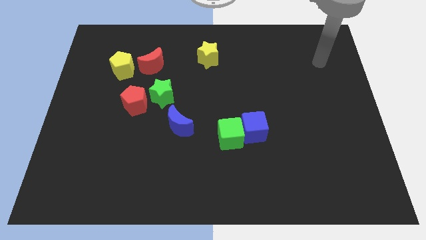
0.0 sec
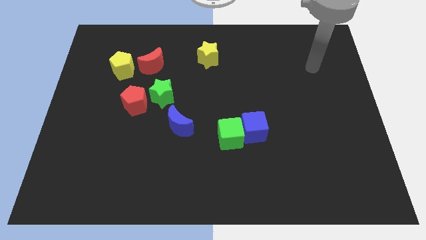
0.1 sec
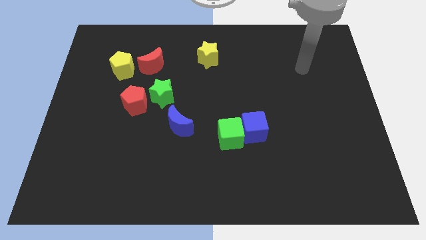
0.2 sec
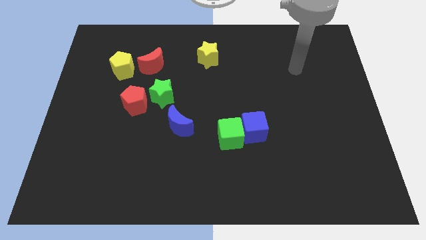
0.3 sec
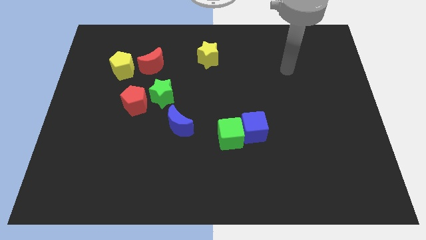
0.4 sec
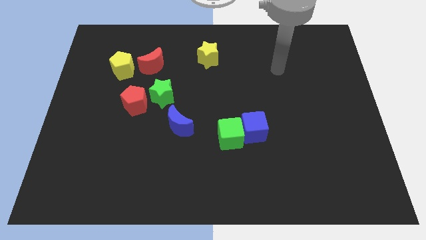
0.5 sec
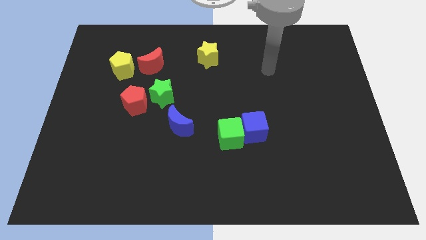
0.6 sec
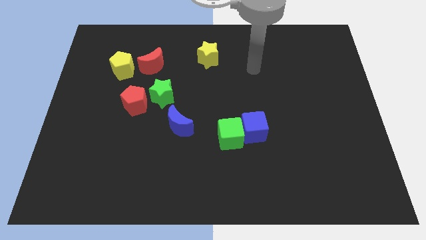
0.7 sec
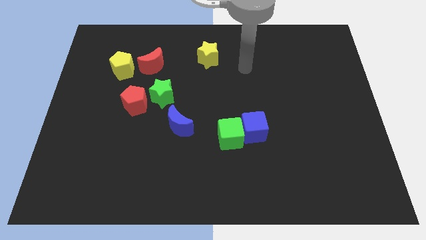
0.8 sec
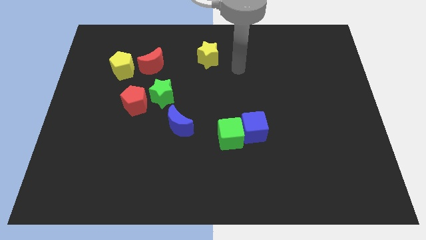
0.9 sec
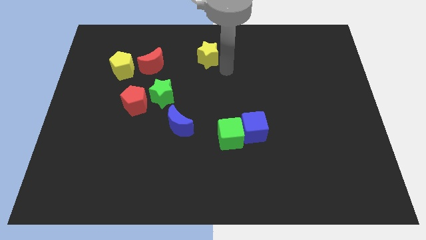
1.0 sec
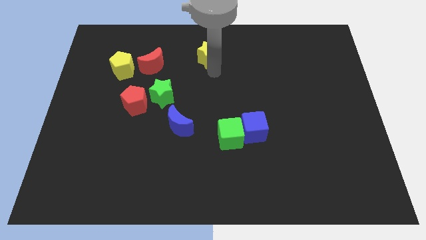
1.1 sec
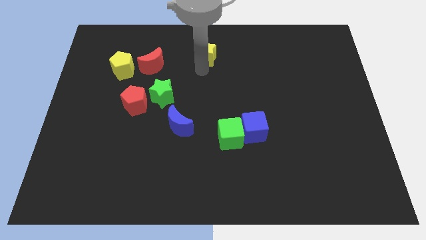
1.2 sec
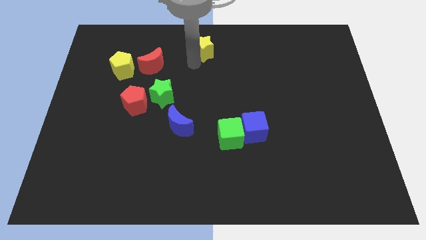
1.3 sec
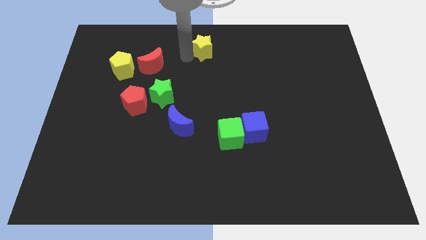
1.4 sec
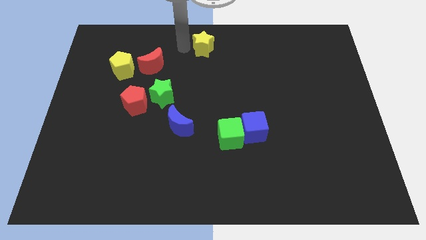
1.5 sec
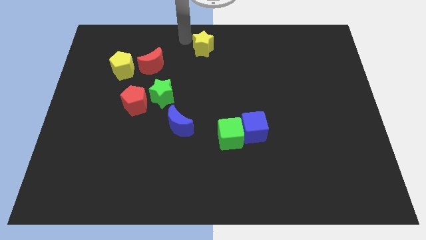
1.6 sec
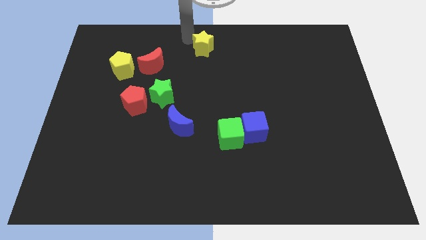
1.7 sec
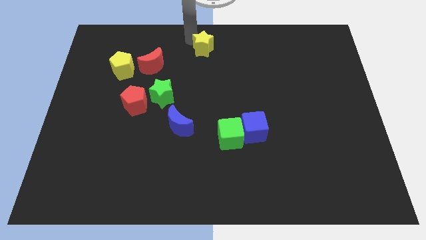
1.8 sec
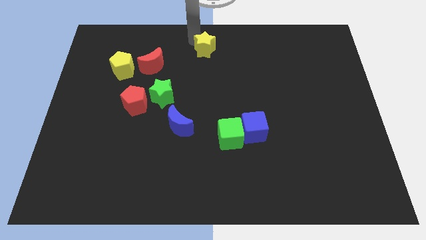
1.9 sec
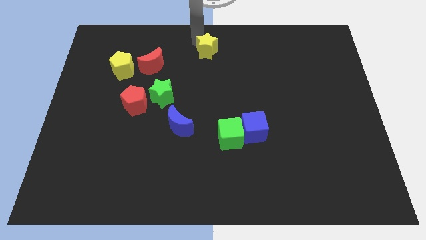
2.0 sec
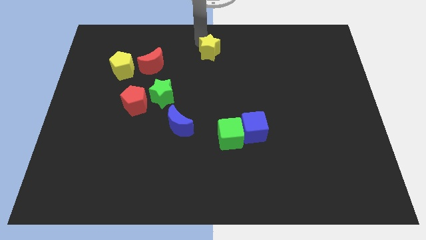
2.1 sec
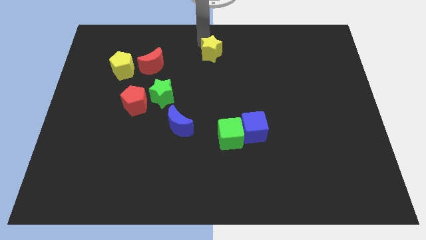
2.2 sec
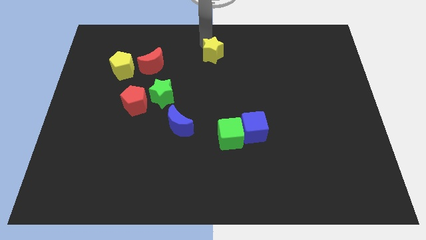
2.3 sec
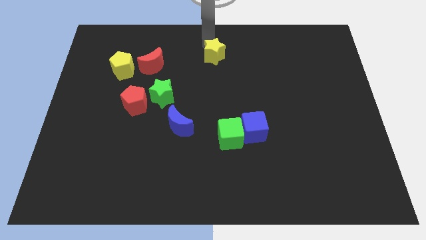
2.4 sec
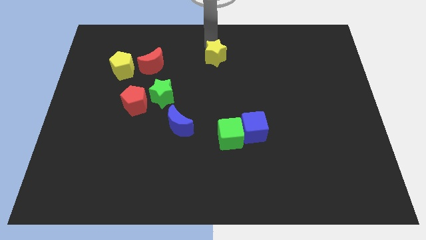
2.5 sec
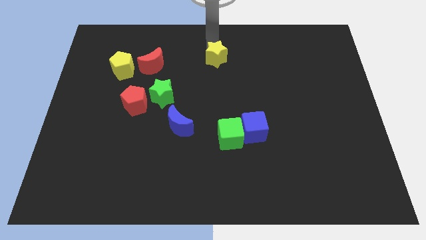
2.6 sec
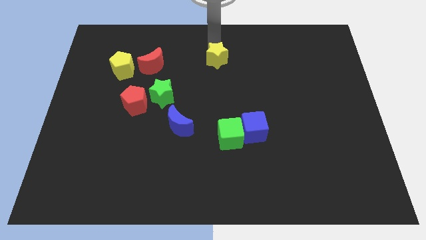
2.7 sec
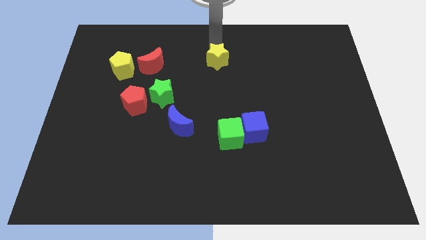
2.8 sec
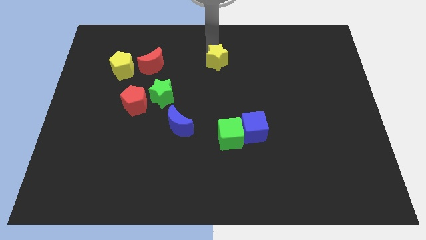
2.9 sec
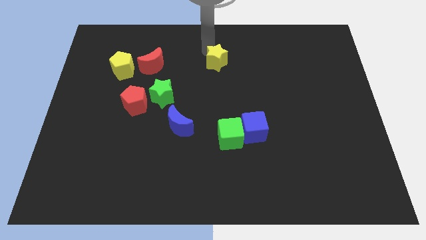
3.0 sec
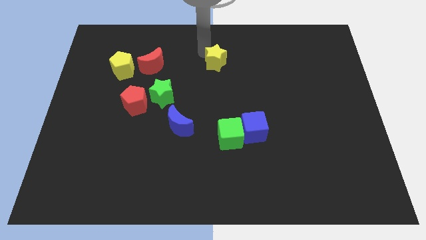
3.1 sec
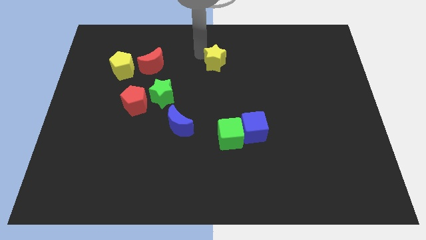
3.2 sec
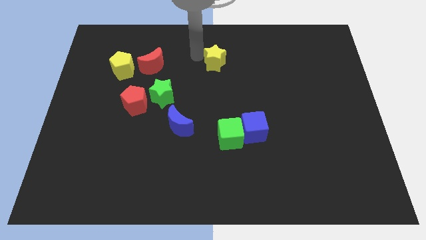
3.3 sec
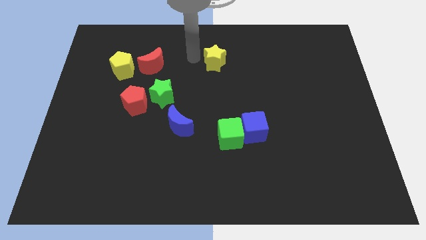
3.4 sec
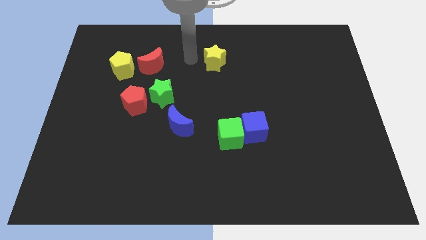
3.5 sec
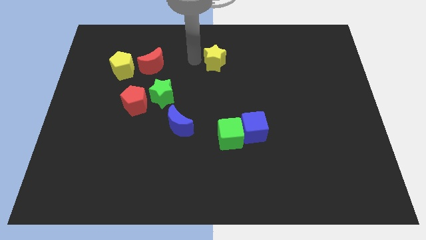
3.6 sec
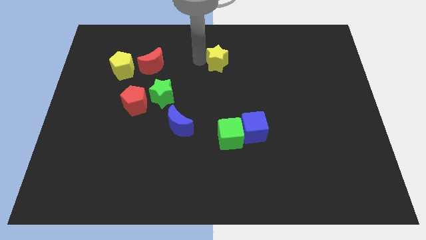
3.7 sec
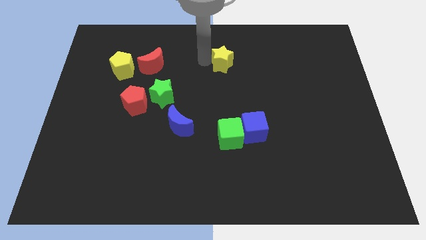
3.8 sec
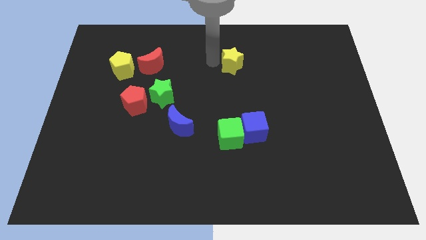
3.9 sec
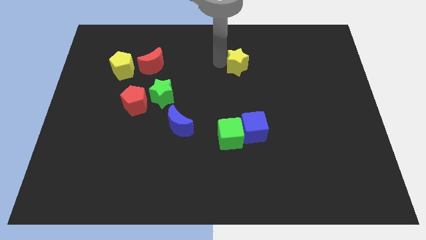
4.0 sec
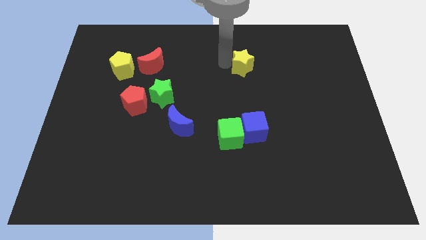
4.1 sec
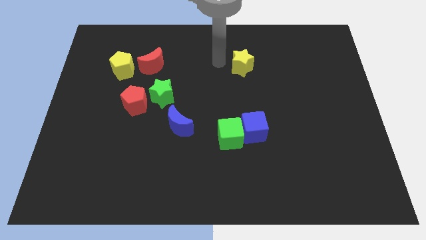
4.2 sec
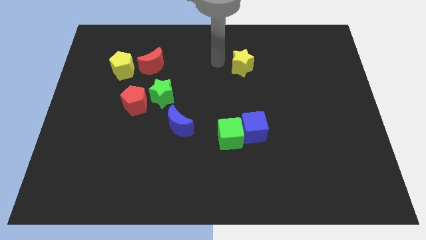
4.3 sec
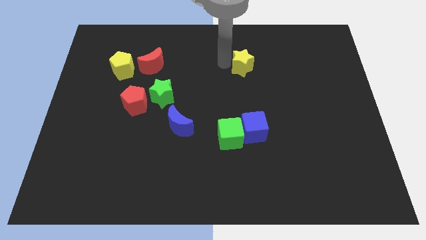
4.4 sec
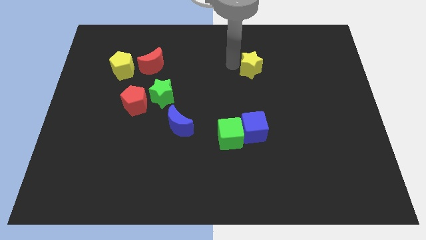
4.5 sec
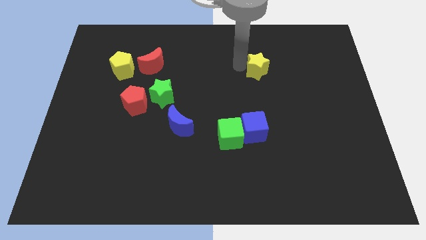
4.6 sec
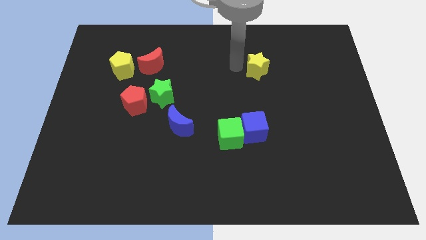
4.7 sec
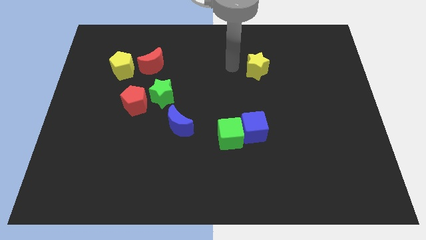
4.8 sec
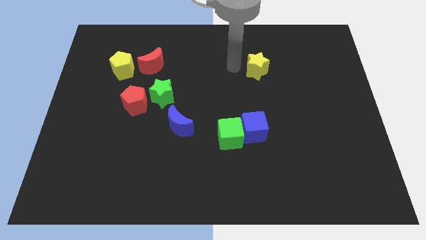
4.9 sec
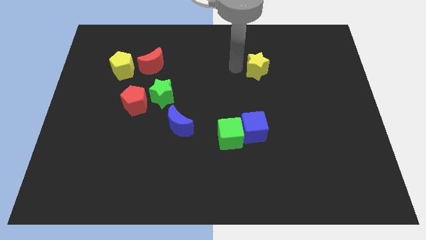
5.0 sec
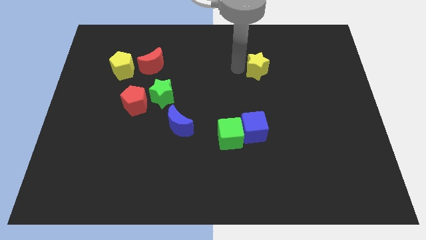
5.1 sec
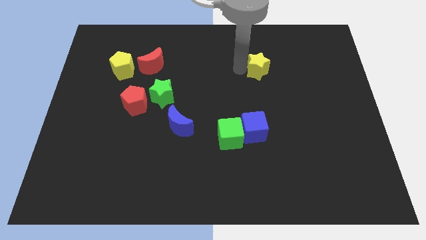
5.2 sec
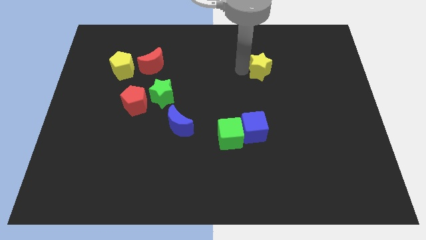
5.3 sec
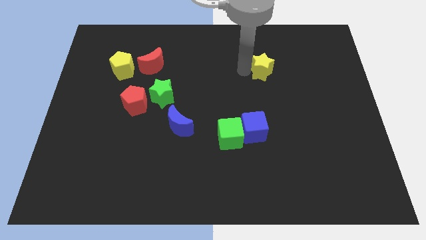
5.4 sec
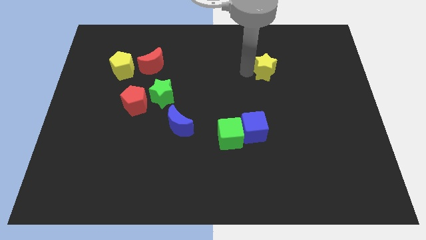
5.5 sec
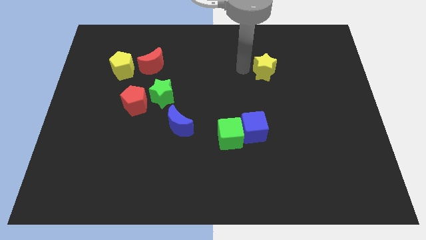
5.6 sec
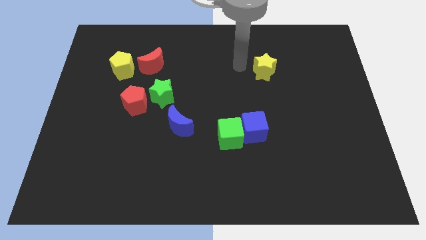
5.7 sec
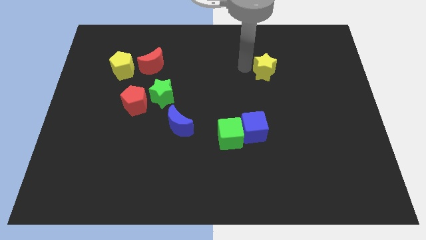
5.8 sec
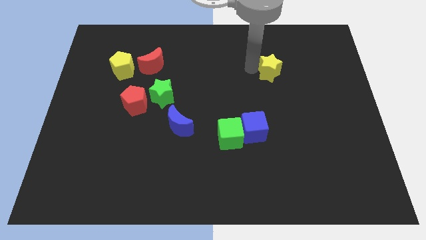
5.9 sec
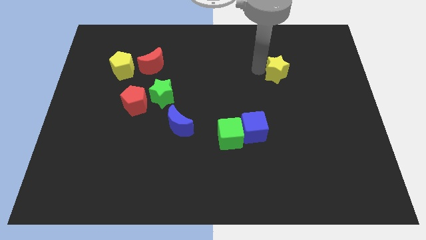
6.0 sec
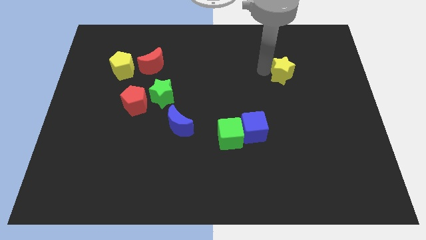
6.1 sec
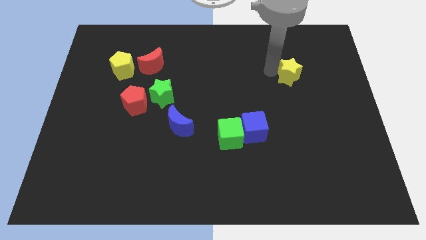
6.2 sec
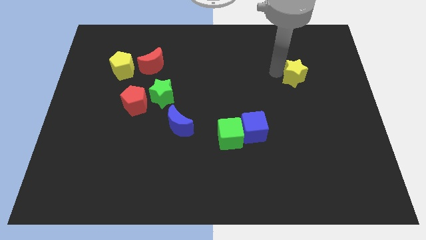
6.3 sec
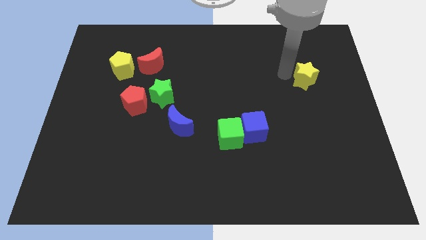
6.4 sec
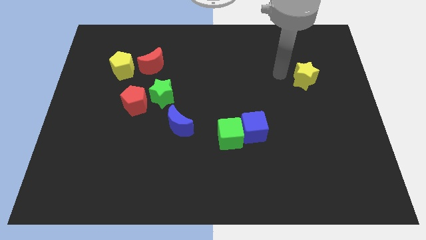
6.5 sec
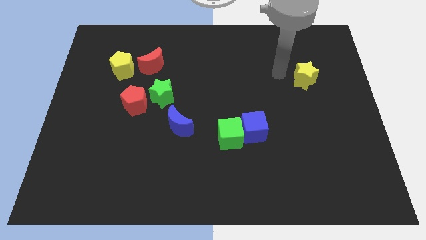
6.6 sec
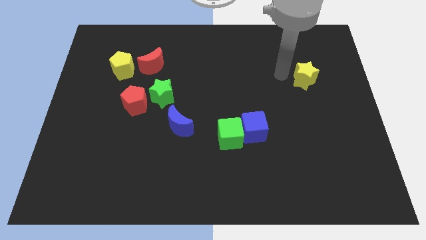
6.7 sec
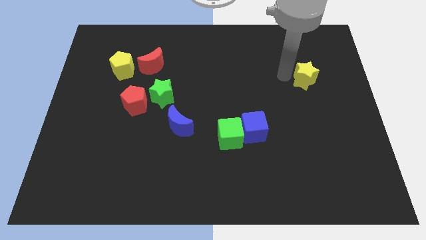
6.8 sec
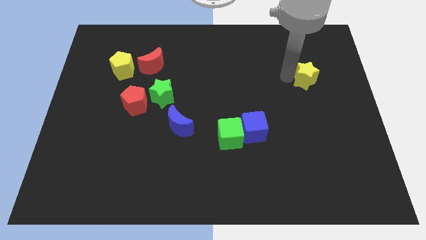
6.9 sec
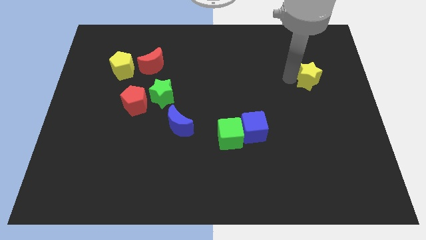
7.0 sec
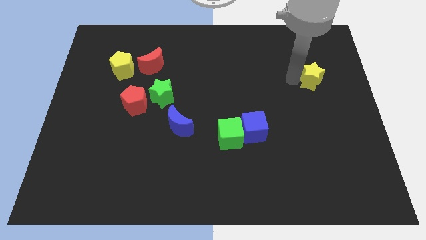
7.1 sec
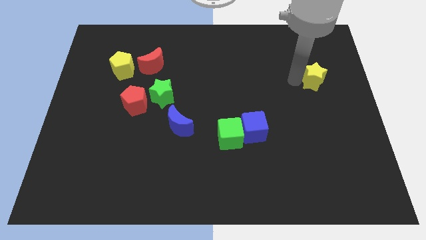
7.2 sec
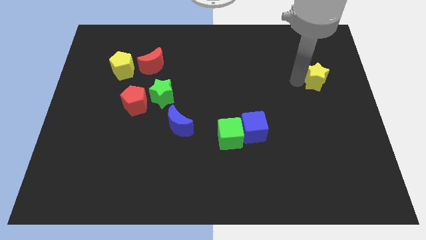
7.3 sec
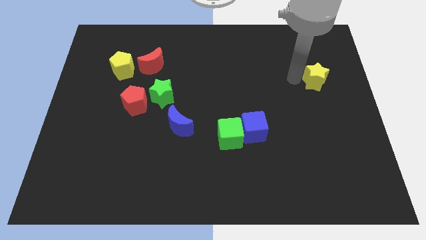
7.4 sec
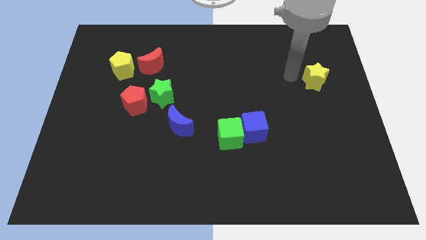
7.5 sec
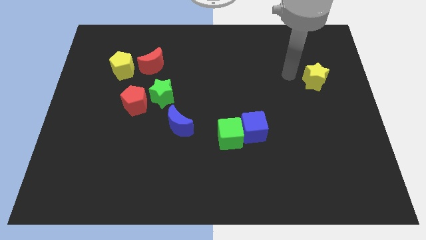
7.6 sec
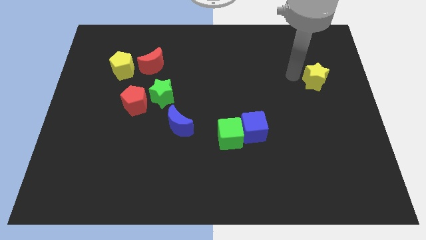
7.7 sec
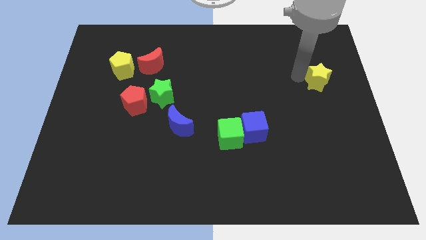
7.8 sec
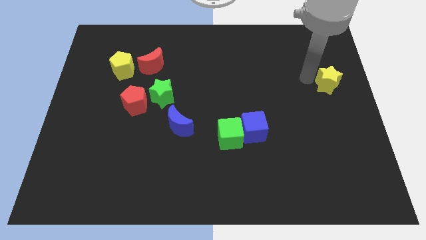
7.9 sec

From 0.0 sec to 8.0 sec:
put the yellow star to the center right
